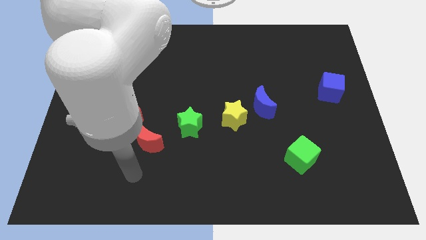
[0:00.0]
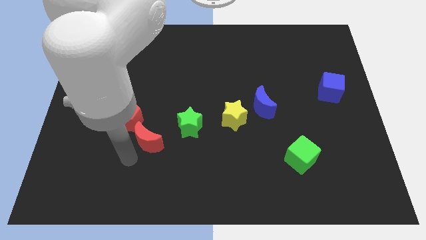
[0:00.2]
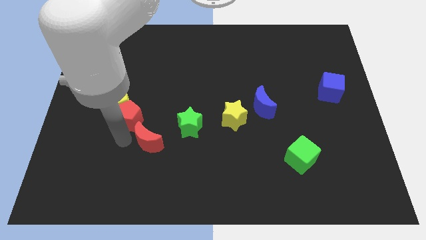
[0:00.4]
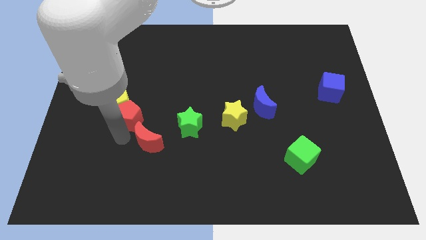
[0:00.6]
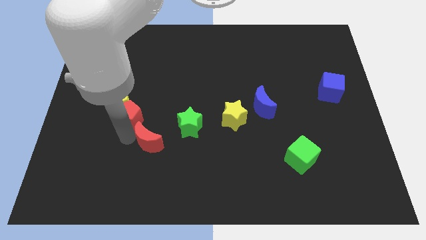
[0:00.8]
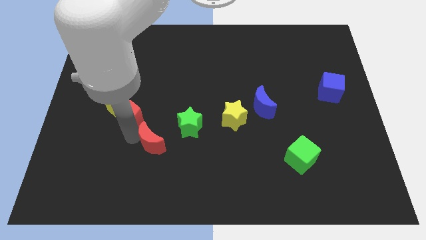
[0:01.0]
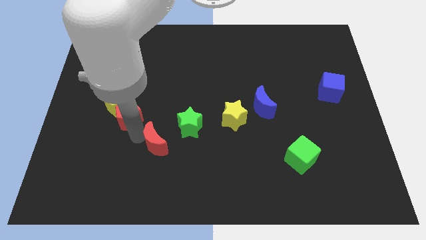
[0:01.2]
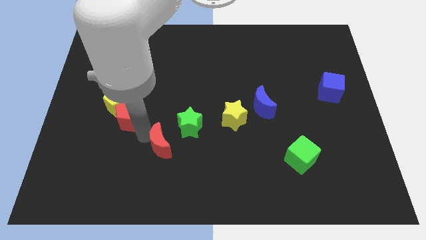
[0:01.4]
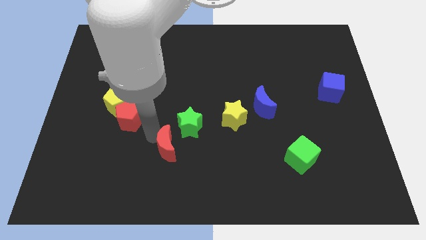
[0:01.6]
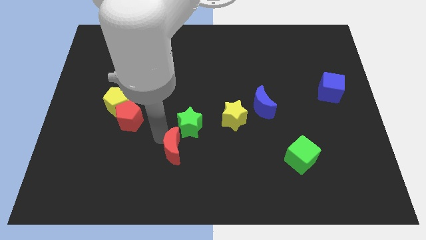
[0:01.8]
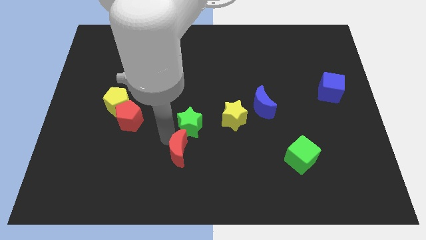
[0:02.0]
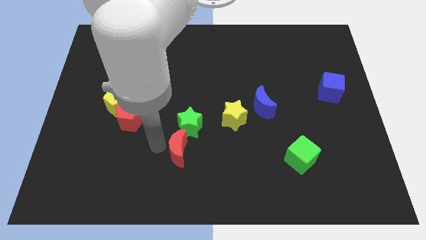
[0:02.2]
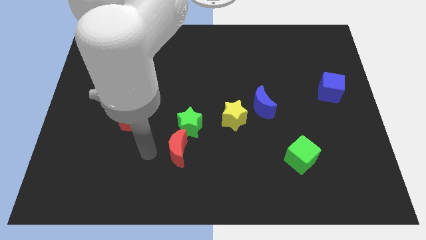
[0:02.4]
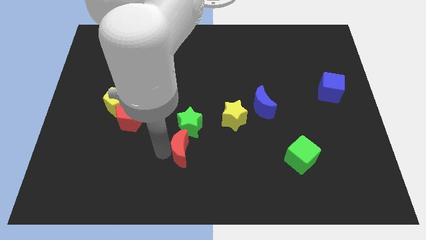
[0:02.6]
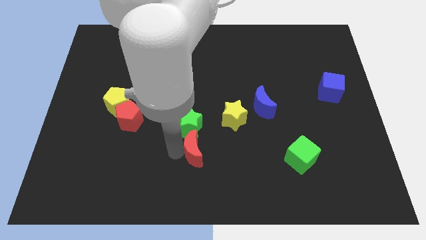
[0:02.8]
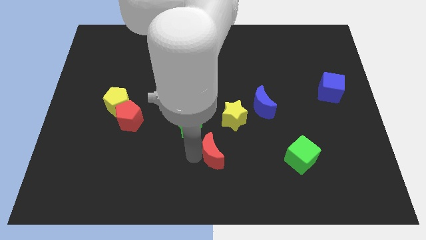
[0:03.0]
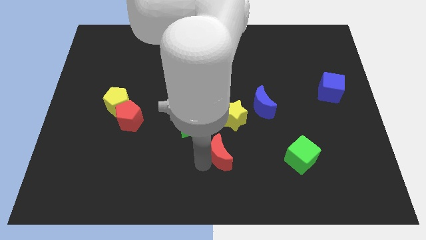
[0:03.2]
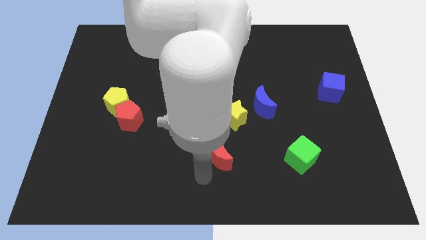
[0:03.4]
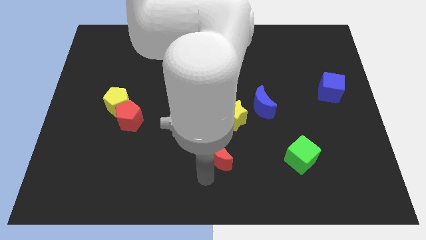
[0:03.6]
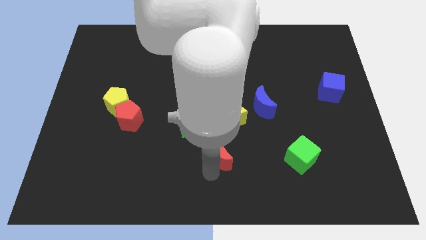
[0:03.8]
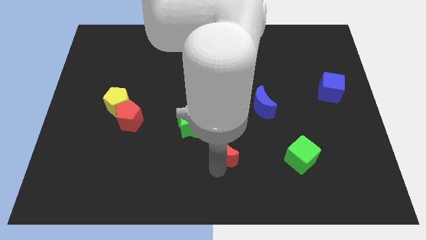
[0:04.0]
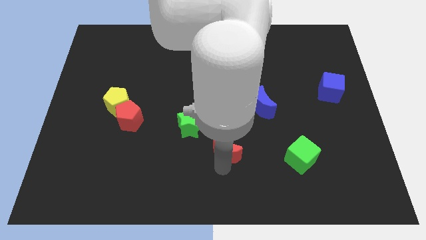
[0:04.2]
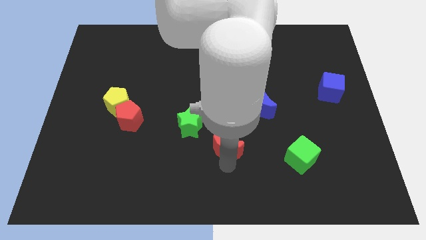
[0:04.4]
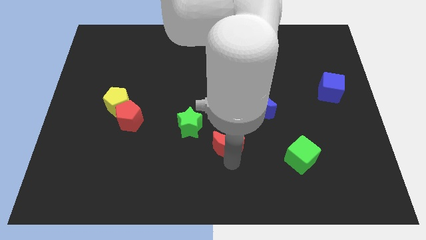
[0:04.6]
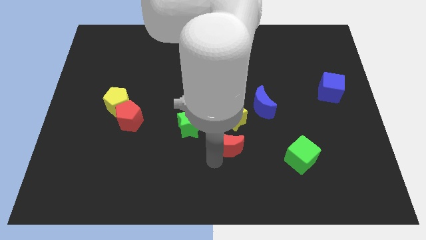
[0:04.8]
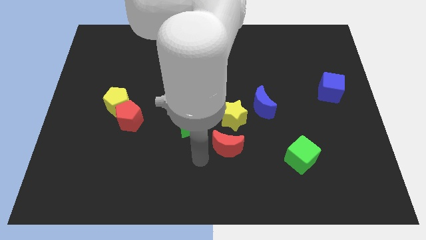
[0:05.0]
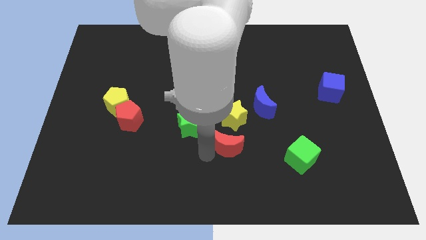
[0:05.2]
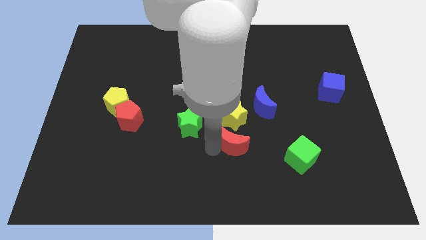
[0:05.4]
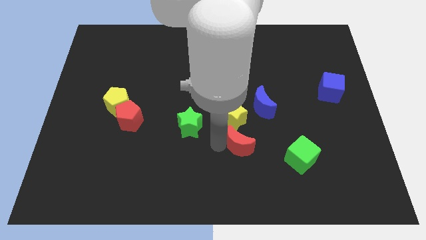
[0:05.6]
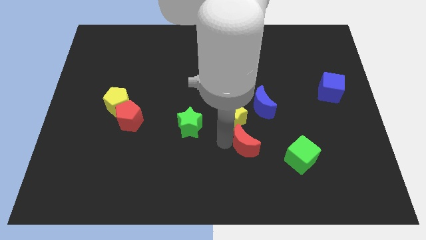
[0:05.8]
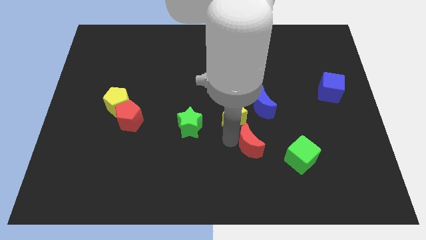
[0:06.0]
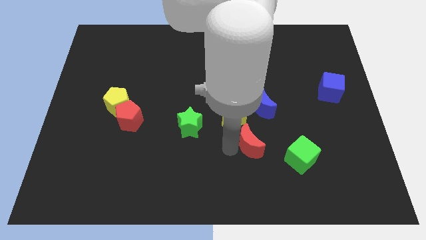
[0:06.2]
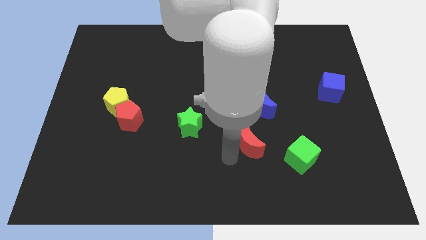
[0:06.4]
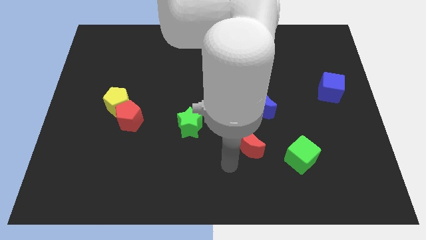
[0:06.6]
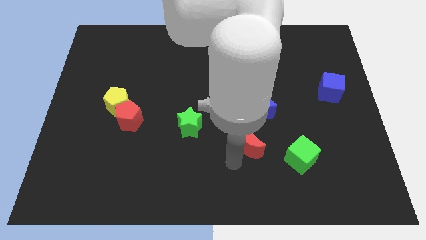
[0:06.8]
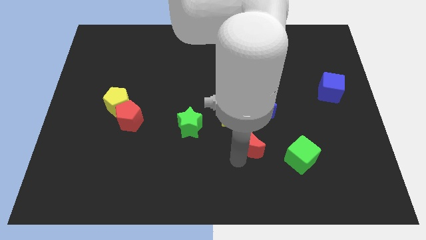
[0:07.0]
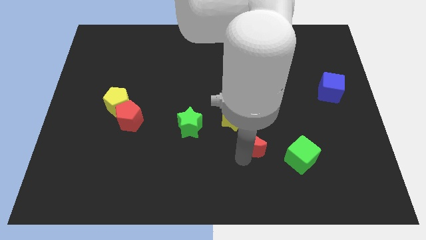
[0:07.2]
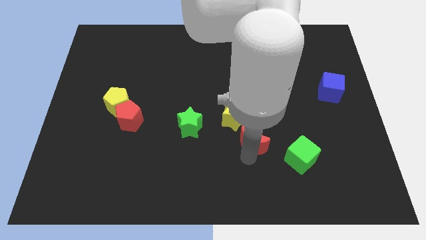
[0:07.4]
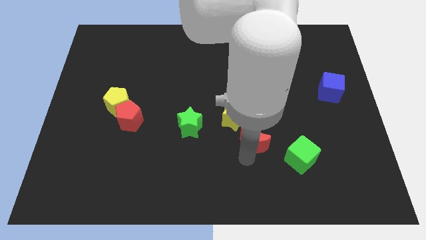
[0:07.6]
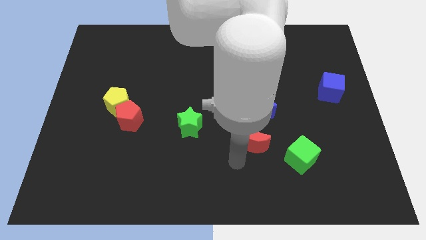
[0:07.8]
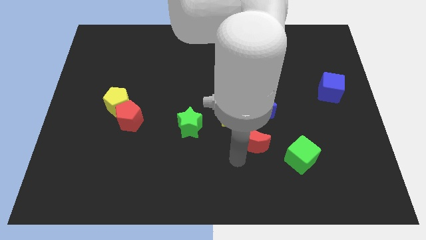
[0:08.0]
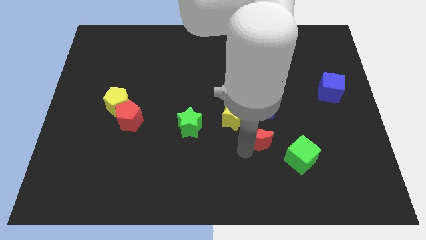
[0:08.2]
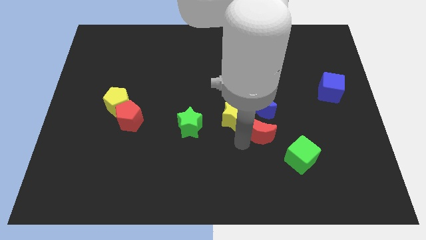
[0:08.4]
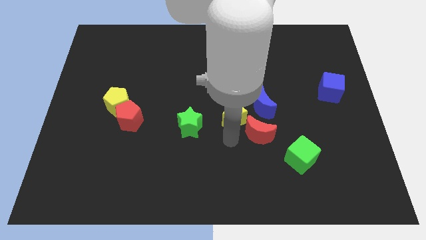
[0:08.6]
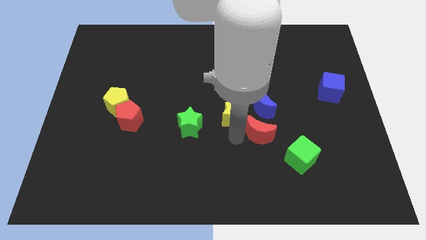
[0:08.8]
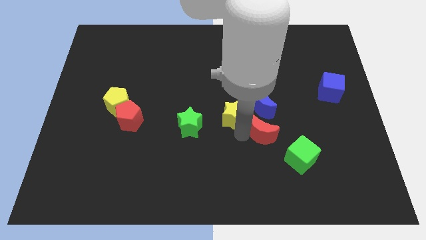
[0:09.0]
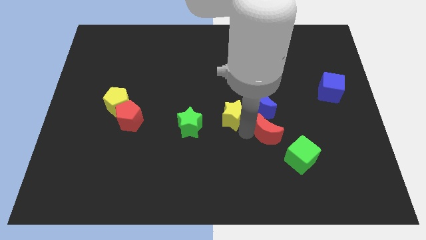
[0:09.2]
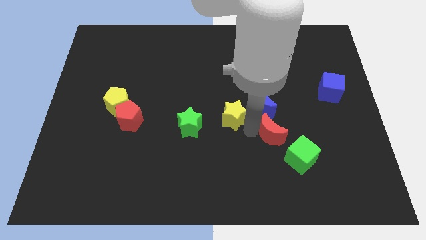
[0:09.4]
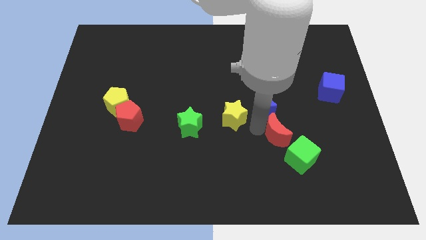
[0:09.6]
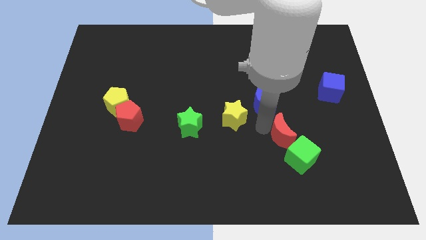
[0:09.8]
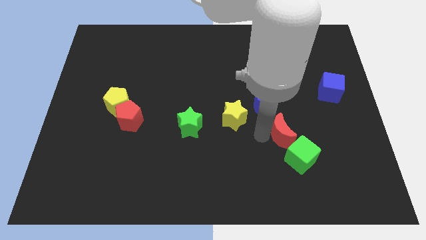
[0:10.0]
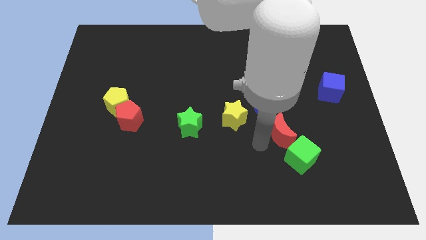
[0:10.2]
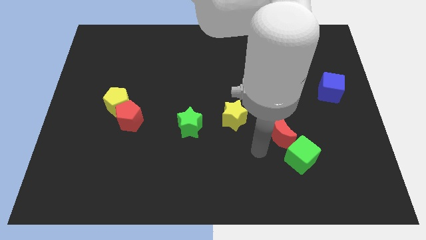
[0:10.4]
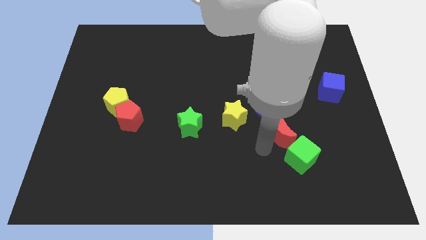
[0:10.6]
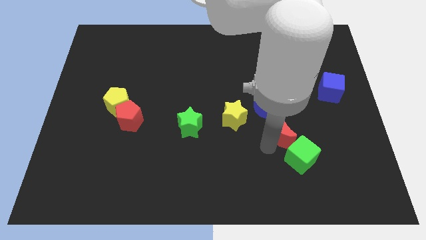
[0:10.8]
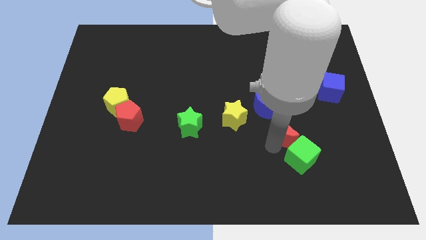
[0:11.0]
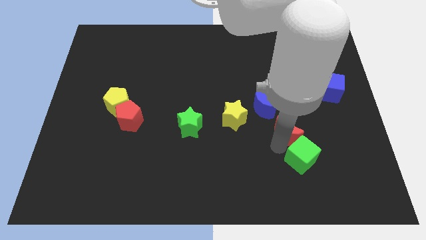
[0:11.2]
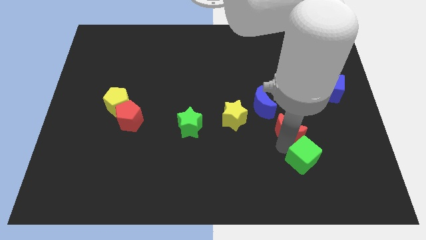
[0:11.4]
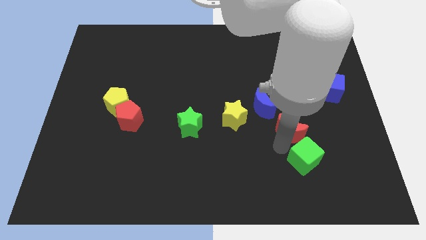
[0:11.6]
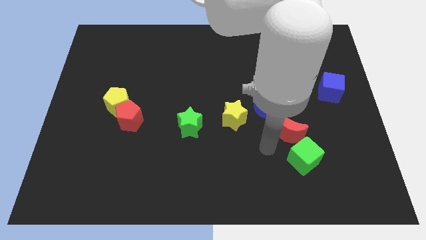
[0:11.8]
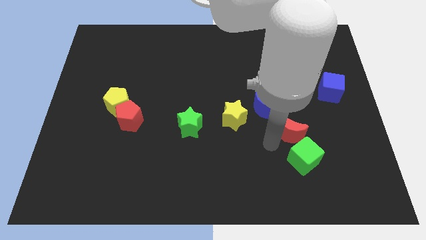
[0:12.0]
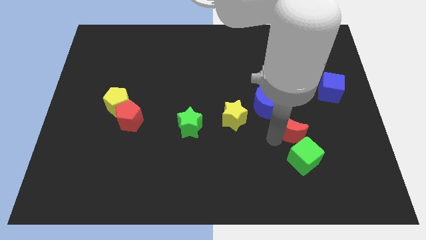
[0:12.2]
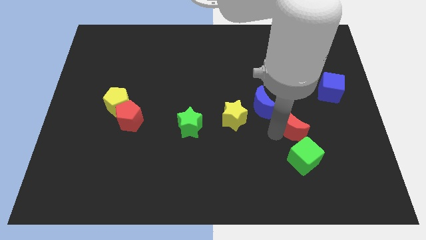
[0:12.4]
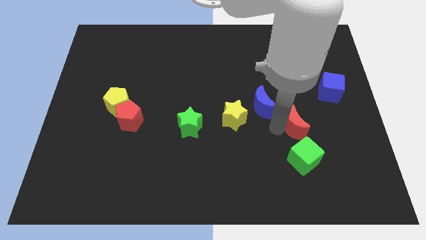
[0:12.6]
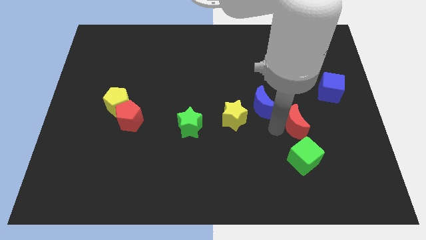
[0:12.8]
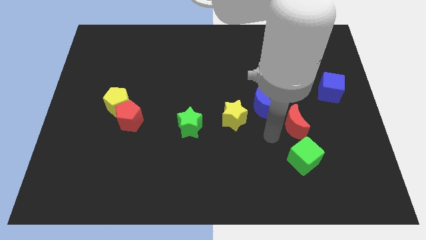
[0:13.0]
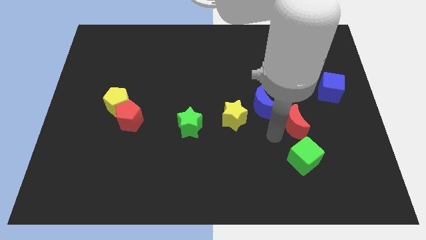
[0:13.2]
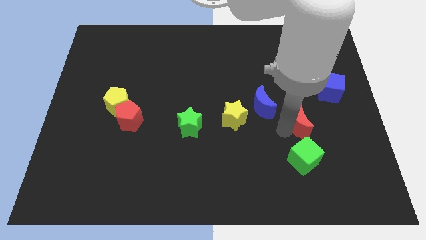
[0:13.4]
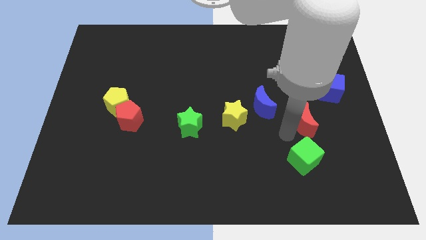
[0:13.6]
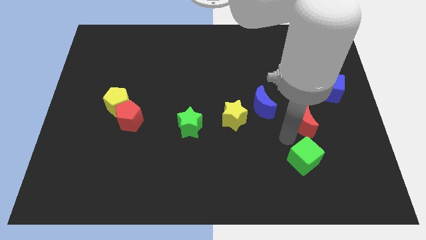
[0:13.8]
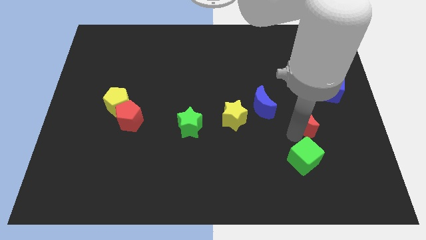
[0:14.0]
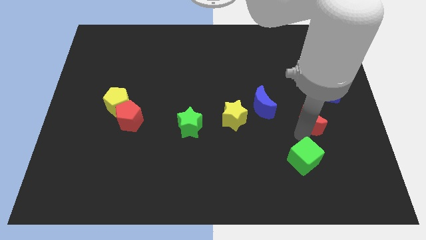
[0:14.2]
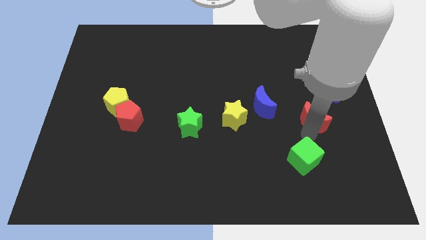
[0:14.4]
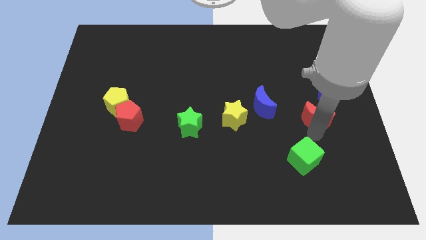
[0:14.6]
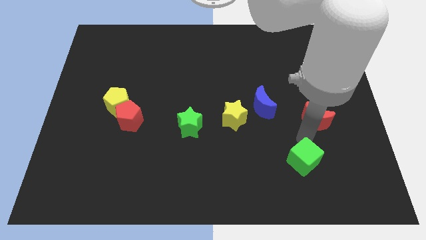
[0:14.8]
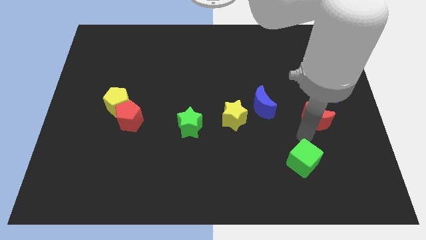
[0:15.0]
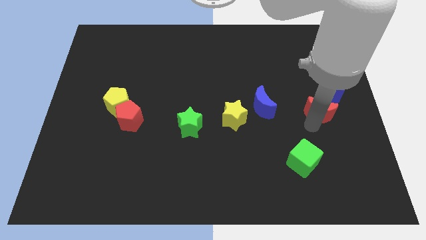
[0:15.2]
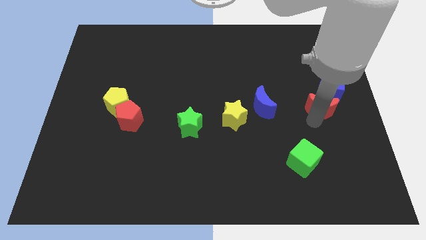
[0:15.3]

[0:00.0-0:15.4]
slide the red moon to the right side of the board
